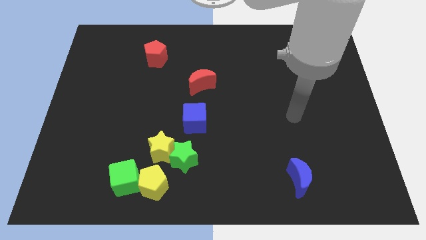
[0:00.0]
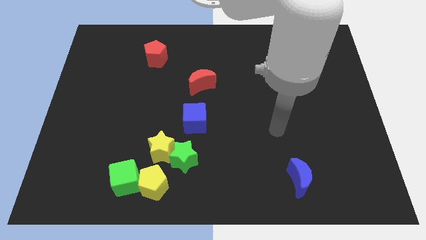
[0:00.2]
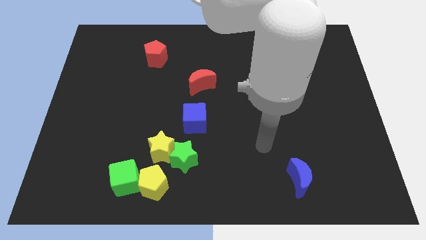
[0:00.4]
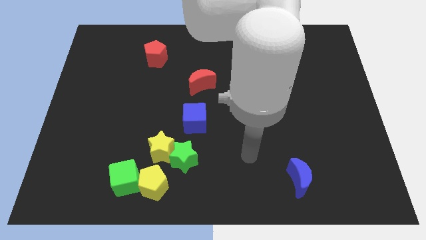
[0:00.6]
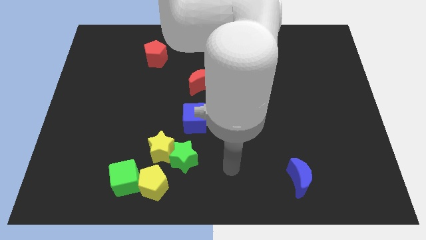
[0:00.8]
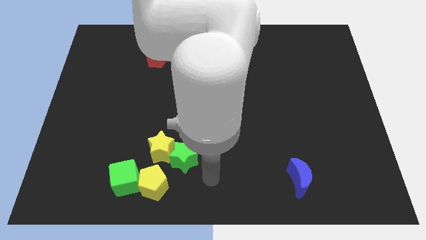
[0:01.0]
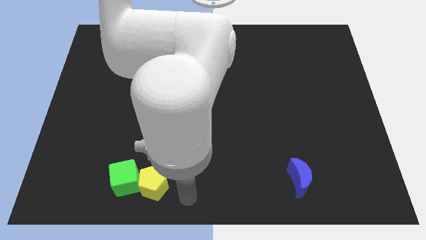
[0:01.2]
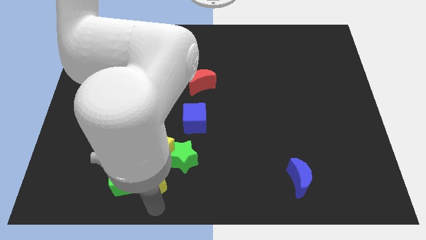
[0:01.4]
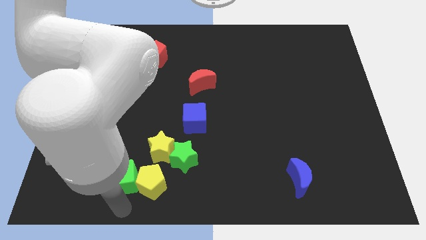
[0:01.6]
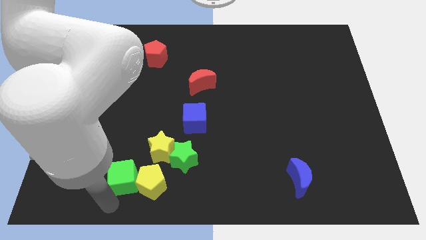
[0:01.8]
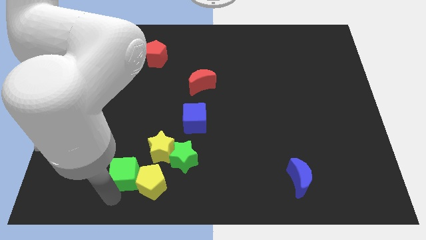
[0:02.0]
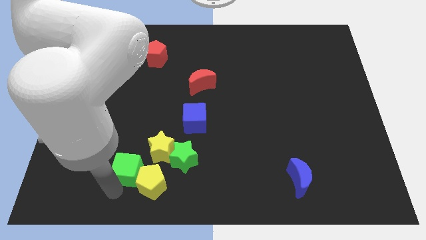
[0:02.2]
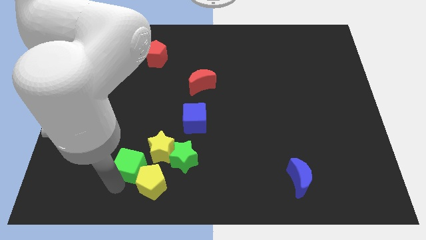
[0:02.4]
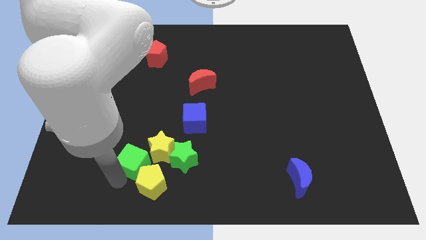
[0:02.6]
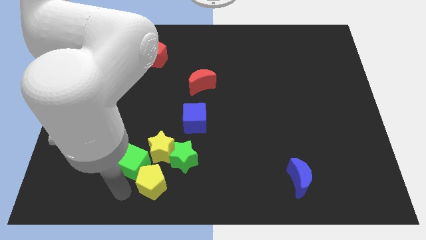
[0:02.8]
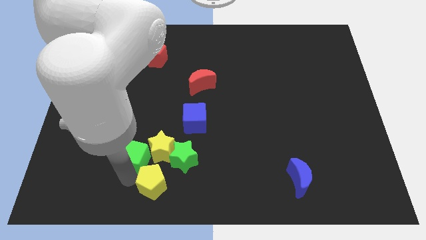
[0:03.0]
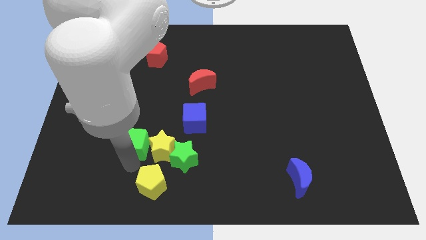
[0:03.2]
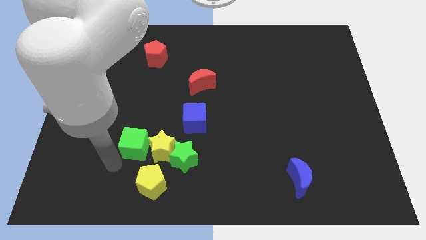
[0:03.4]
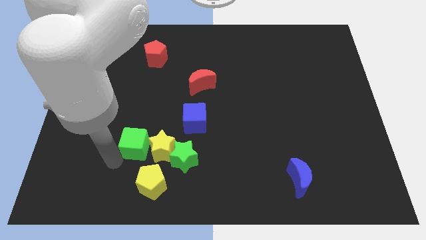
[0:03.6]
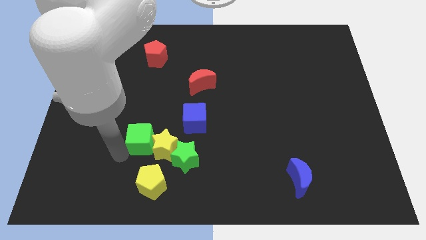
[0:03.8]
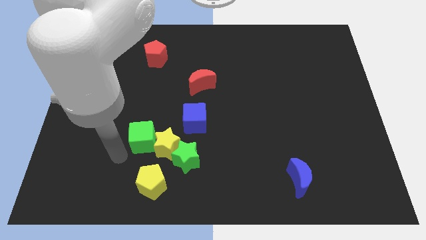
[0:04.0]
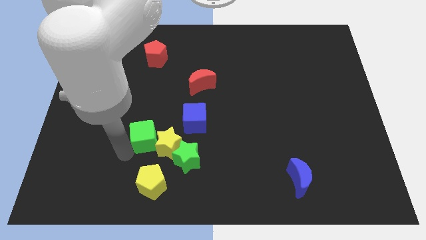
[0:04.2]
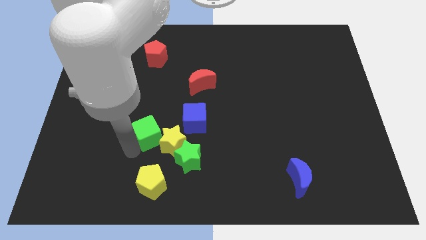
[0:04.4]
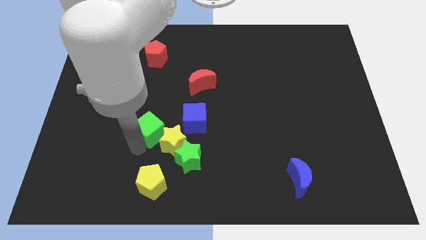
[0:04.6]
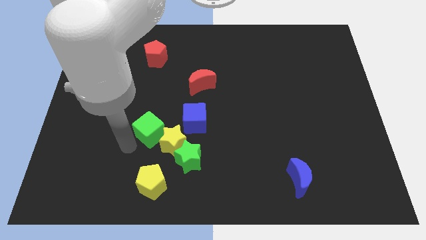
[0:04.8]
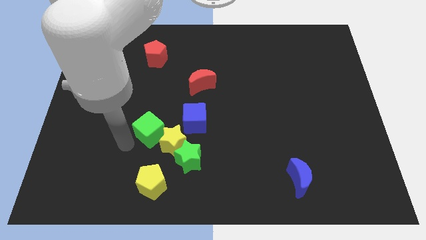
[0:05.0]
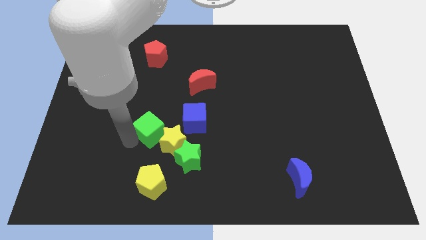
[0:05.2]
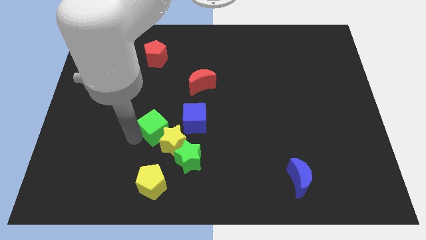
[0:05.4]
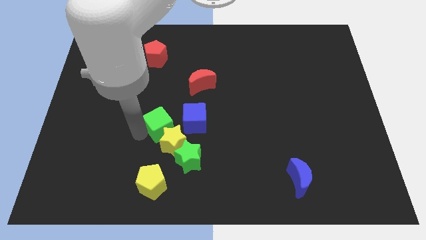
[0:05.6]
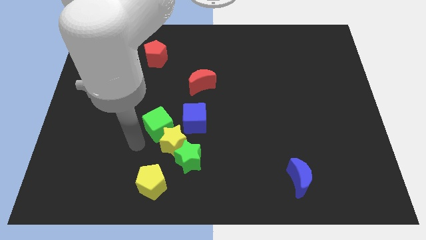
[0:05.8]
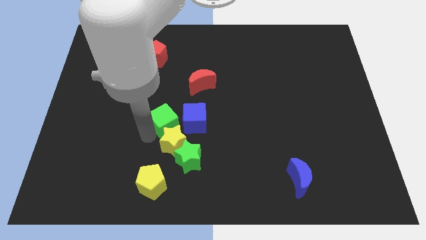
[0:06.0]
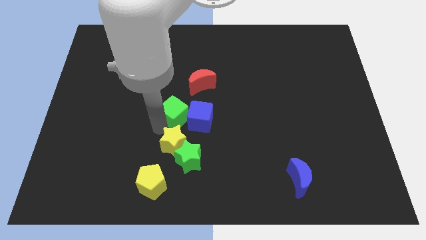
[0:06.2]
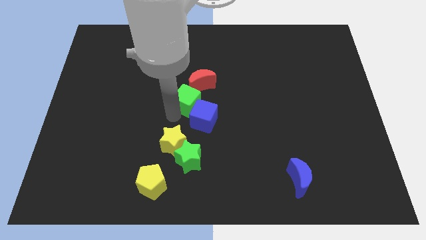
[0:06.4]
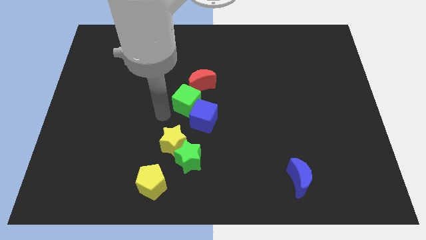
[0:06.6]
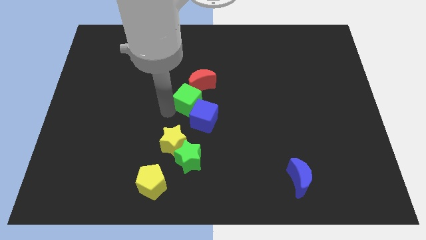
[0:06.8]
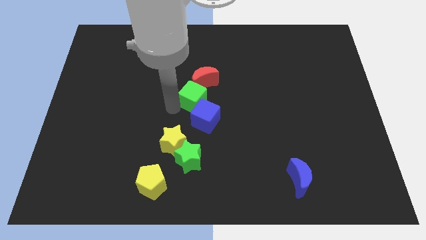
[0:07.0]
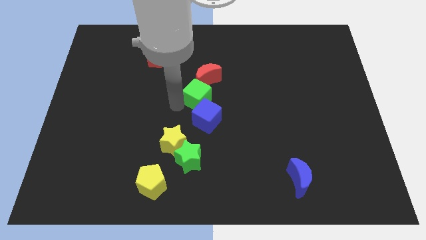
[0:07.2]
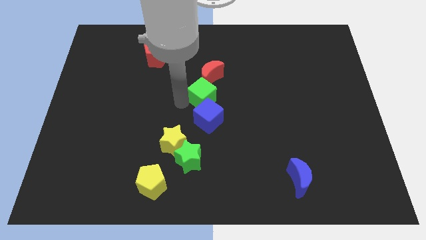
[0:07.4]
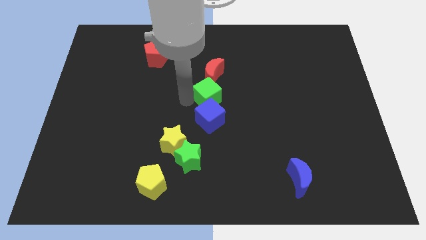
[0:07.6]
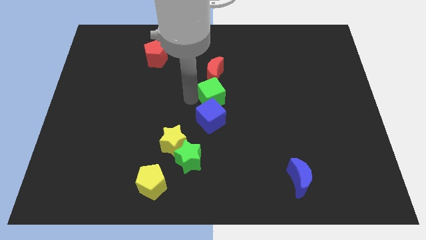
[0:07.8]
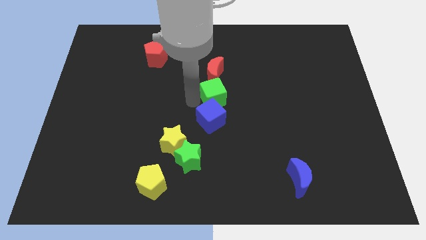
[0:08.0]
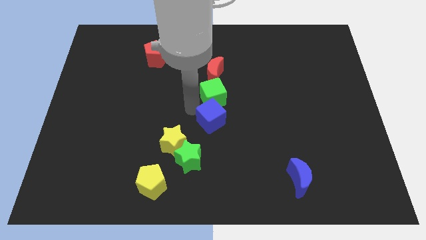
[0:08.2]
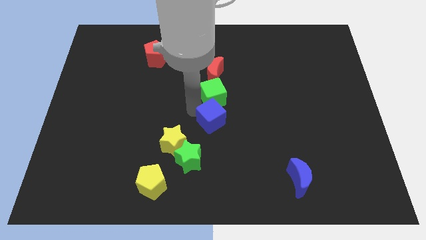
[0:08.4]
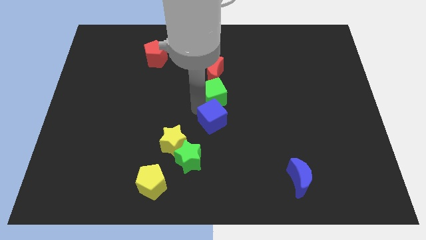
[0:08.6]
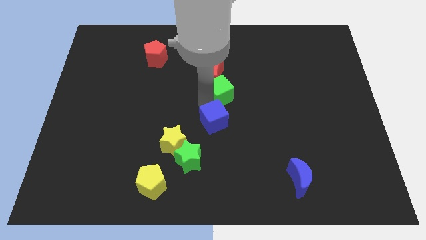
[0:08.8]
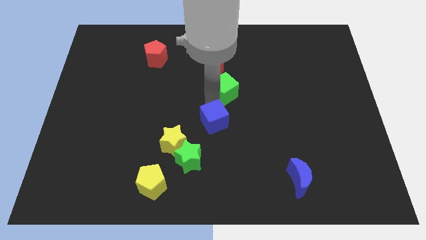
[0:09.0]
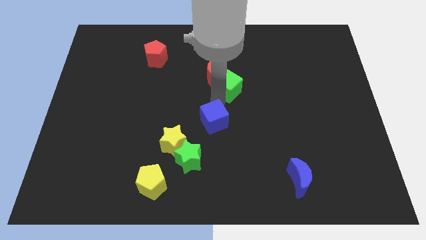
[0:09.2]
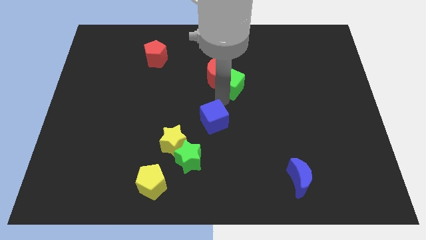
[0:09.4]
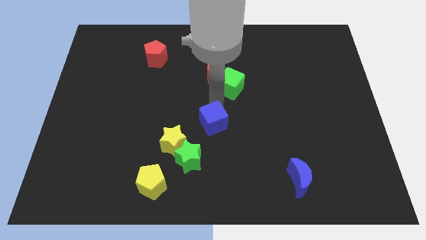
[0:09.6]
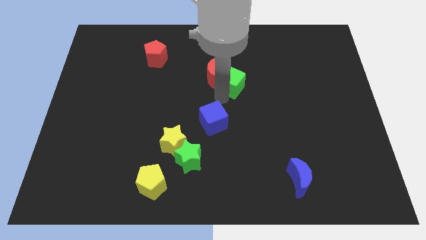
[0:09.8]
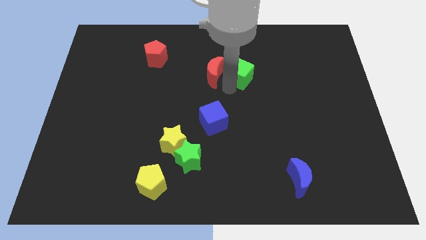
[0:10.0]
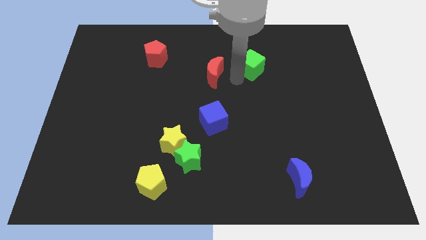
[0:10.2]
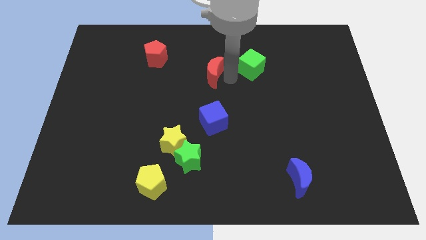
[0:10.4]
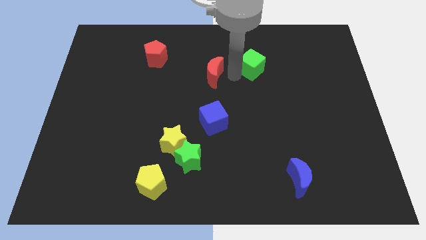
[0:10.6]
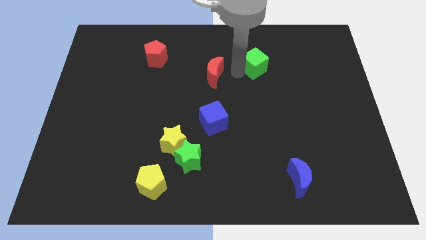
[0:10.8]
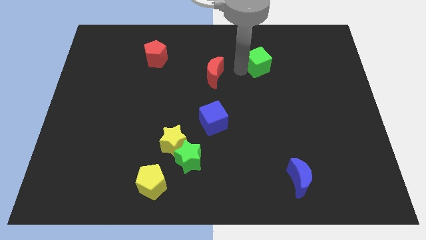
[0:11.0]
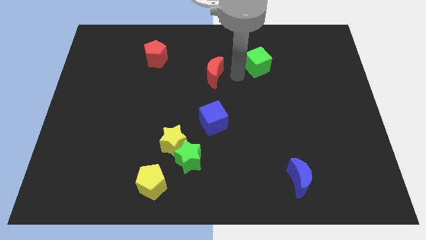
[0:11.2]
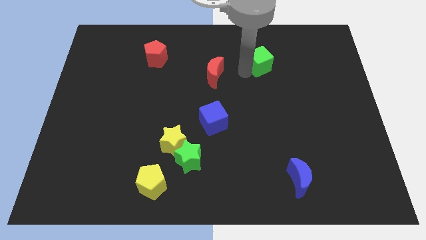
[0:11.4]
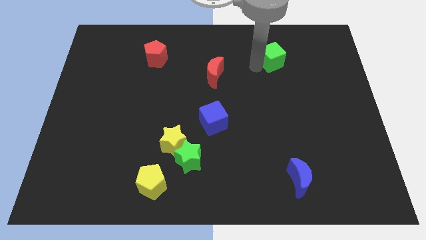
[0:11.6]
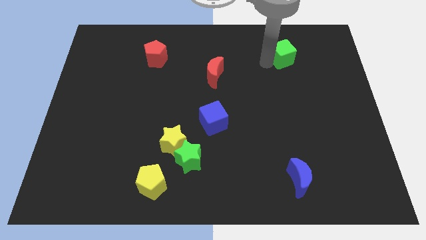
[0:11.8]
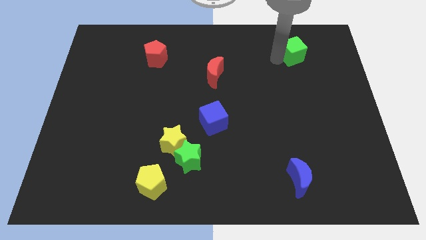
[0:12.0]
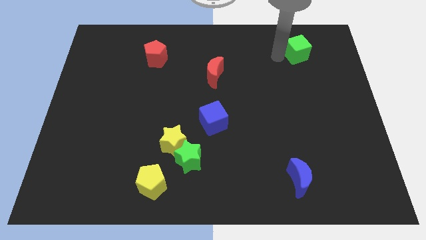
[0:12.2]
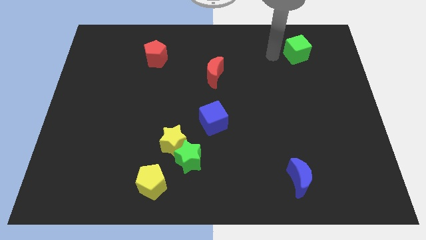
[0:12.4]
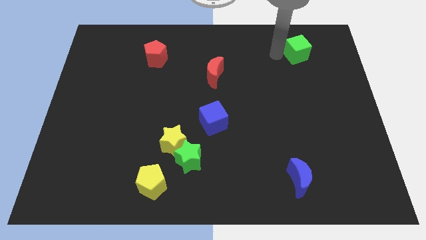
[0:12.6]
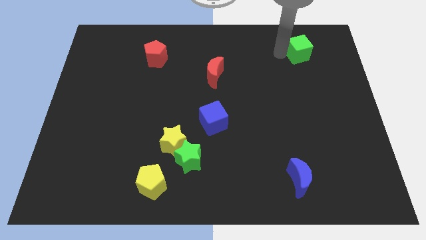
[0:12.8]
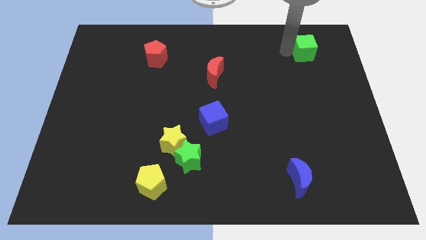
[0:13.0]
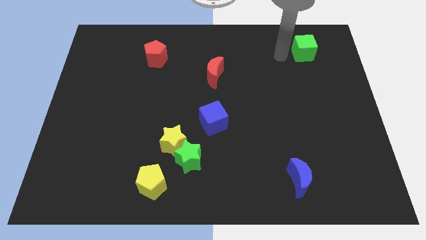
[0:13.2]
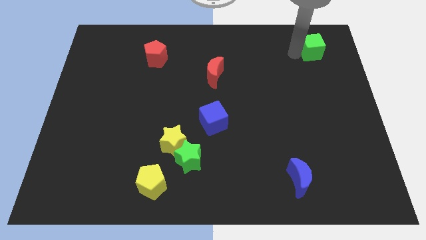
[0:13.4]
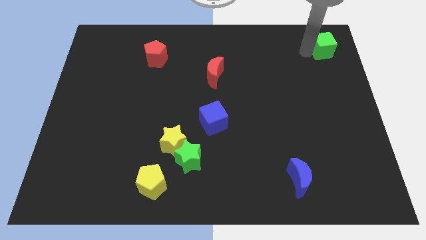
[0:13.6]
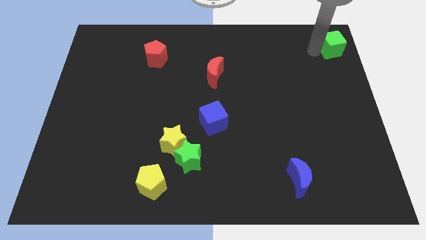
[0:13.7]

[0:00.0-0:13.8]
slide the green cube to the upper right corner
